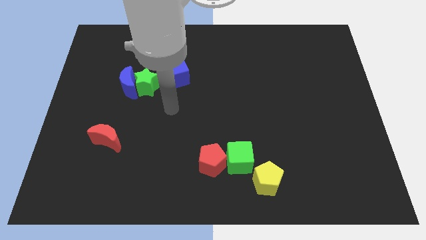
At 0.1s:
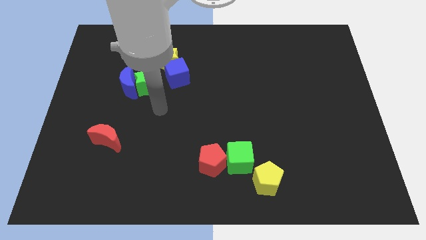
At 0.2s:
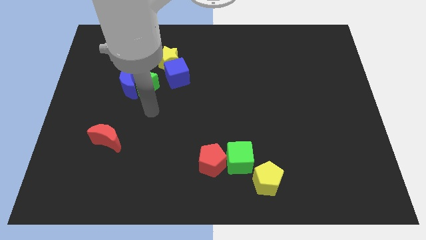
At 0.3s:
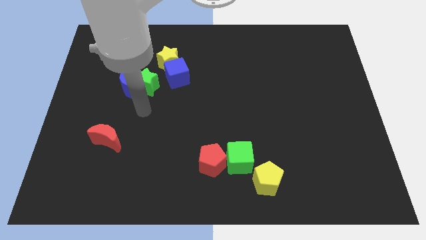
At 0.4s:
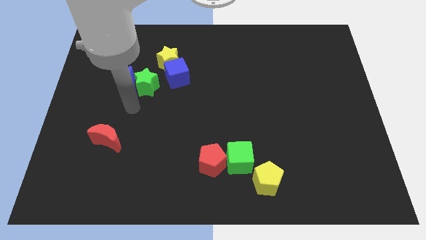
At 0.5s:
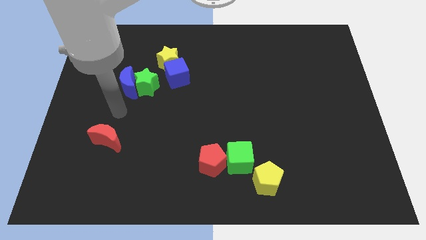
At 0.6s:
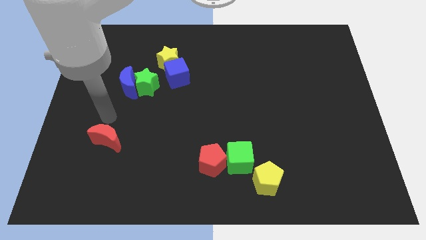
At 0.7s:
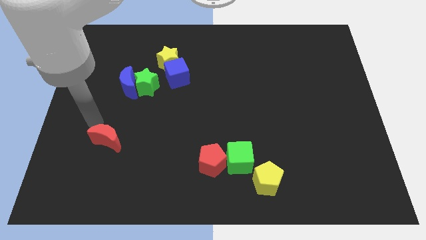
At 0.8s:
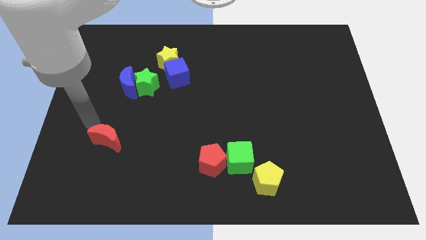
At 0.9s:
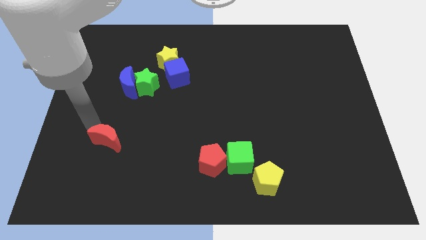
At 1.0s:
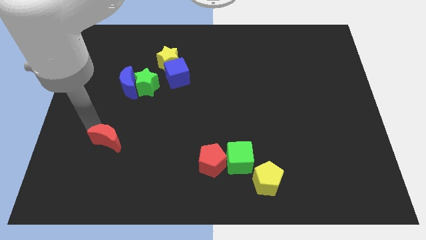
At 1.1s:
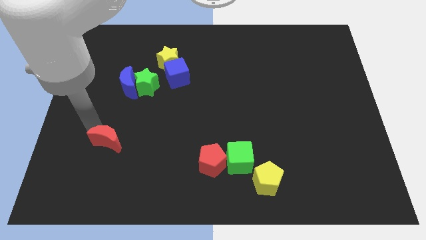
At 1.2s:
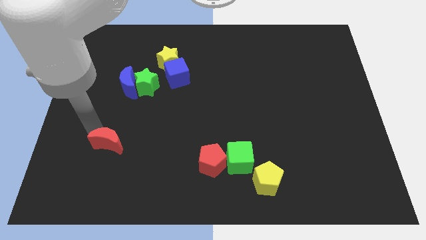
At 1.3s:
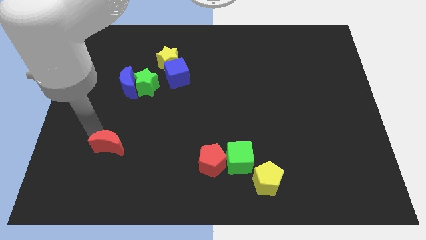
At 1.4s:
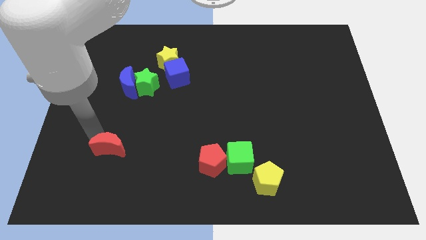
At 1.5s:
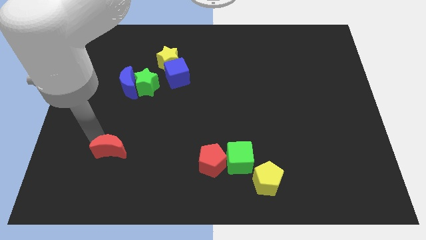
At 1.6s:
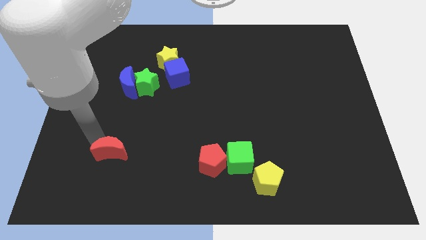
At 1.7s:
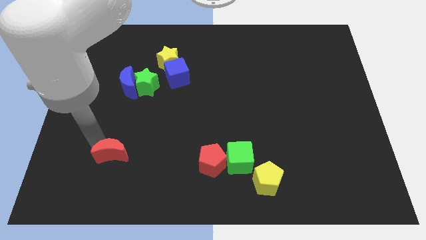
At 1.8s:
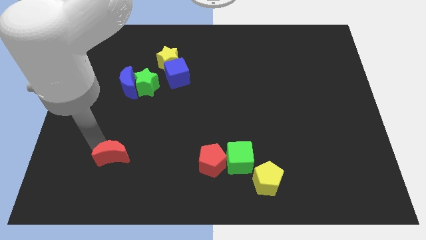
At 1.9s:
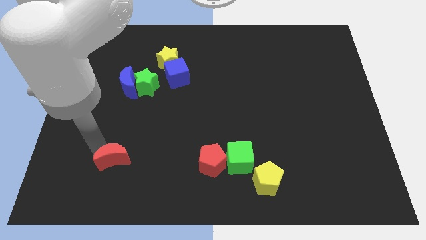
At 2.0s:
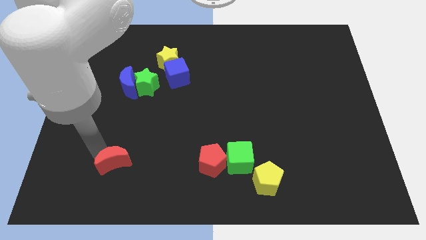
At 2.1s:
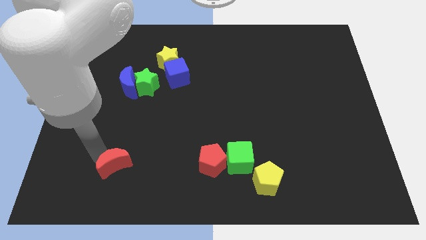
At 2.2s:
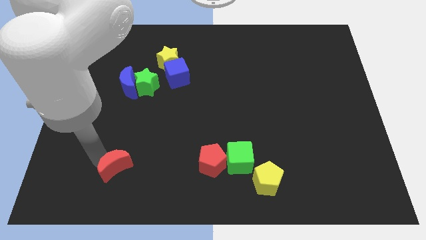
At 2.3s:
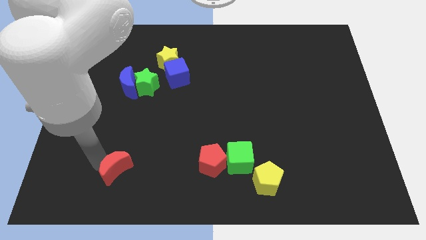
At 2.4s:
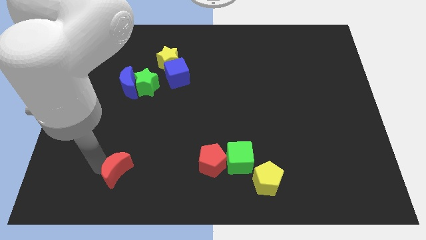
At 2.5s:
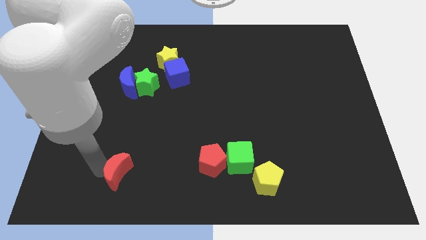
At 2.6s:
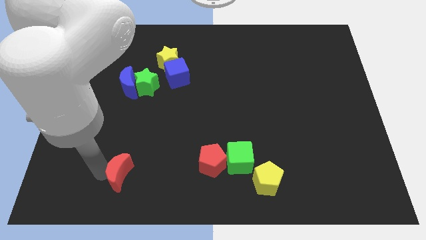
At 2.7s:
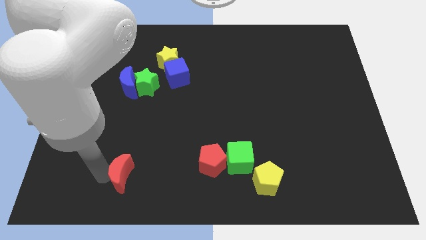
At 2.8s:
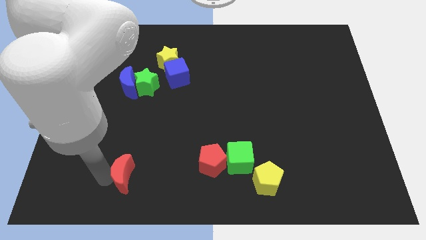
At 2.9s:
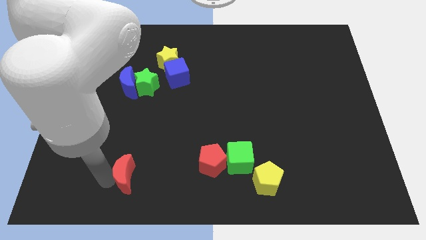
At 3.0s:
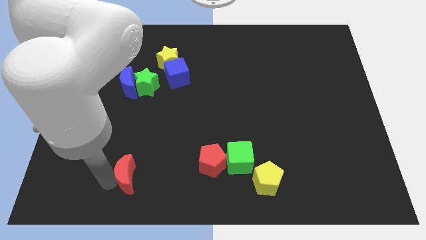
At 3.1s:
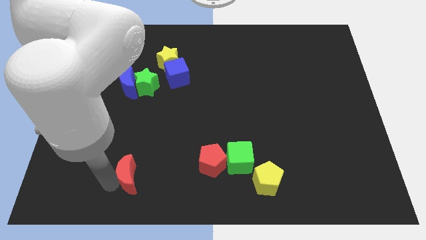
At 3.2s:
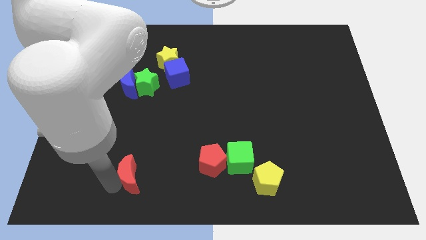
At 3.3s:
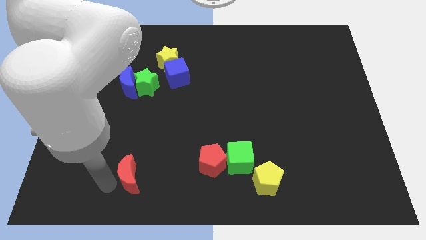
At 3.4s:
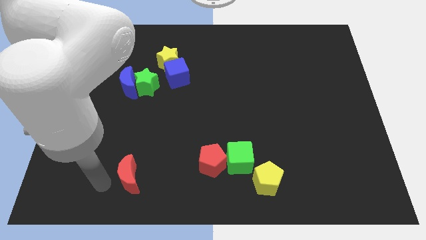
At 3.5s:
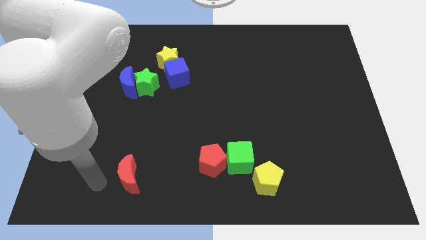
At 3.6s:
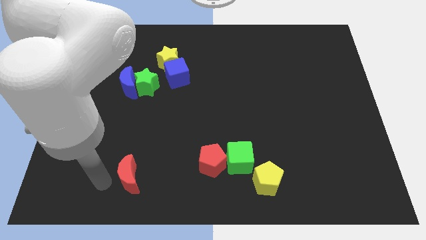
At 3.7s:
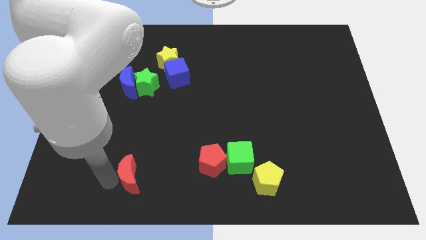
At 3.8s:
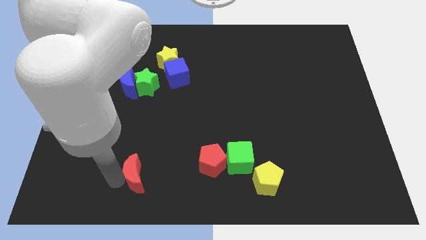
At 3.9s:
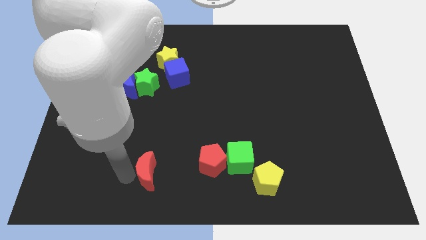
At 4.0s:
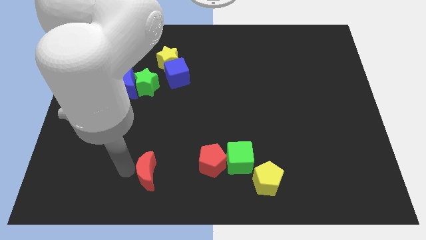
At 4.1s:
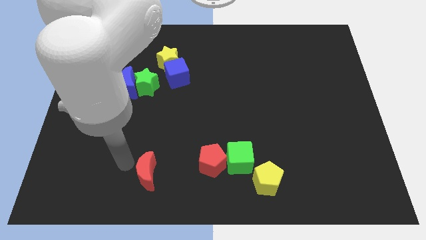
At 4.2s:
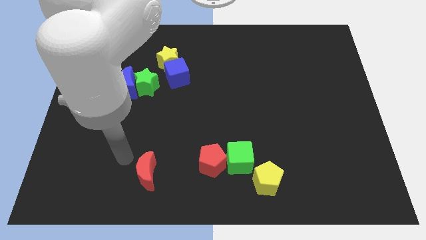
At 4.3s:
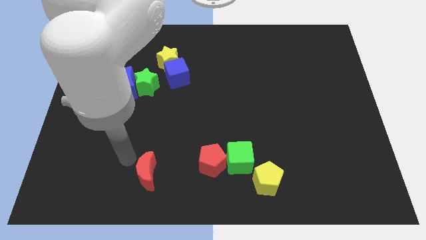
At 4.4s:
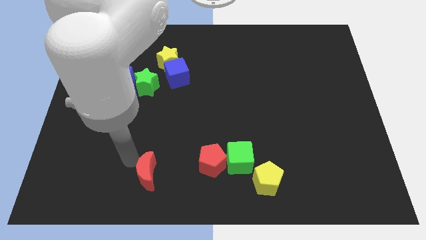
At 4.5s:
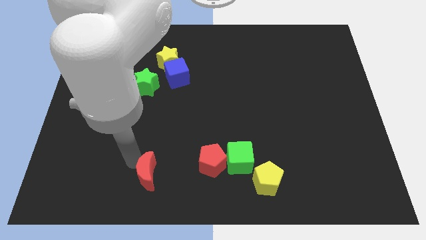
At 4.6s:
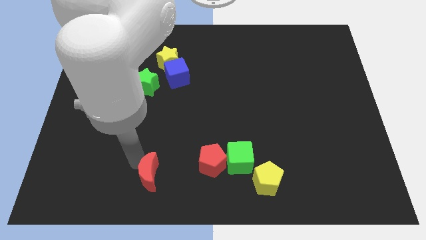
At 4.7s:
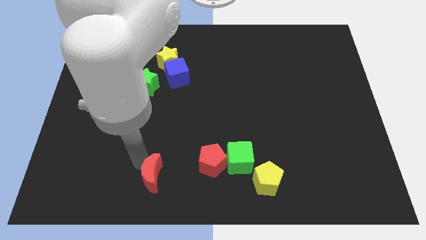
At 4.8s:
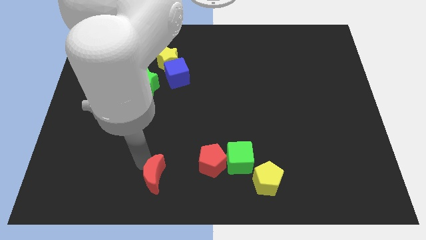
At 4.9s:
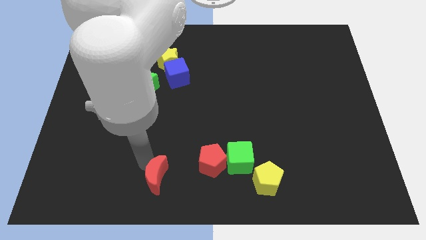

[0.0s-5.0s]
slide the red moon to the bottom side

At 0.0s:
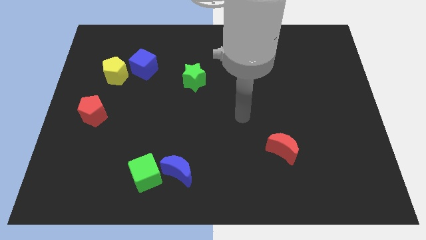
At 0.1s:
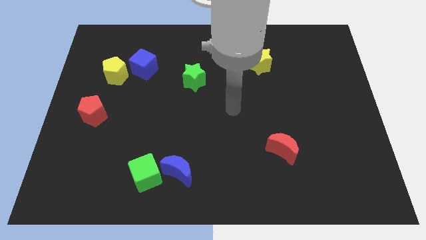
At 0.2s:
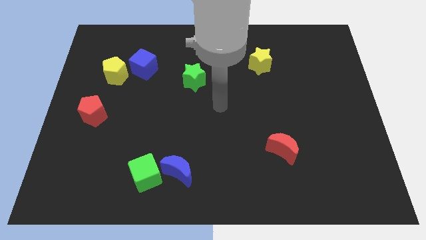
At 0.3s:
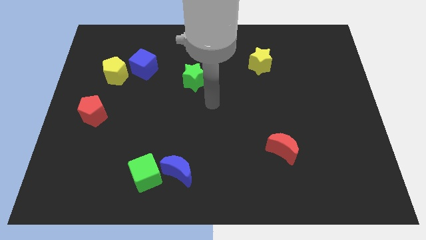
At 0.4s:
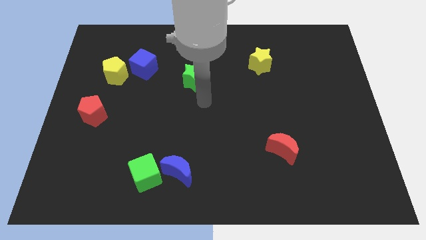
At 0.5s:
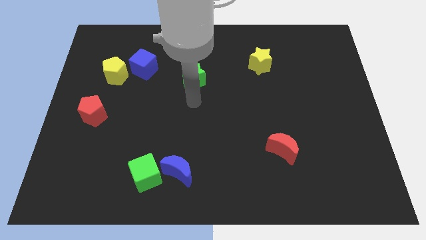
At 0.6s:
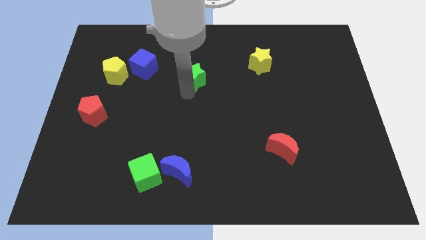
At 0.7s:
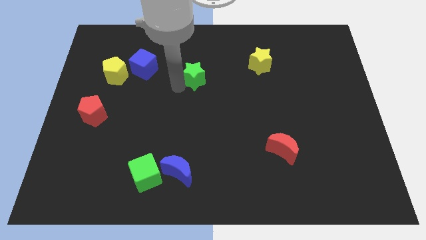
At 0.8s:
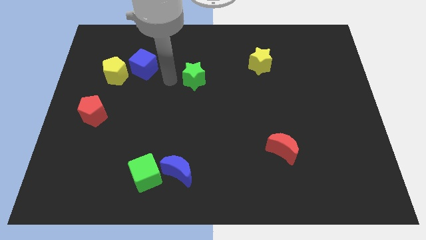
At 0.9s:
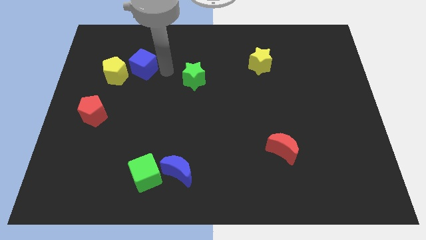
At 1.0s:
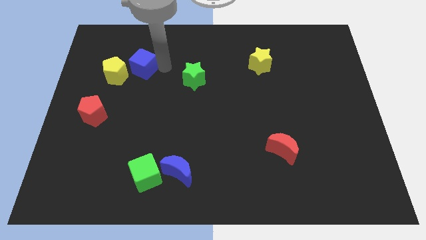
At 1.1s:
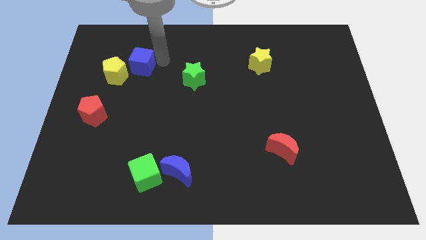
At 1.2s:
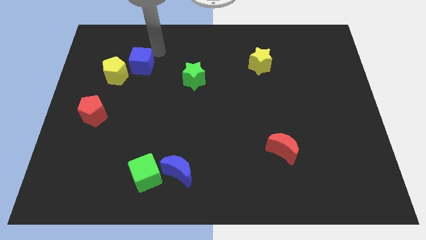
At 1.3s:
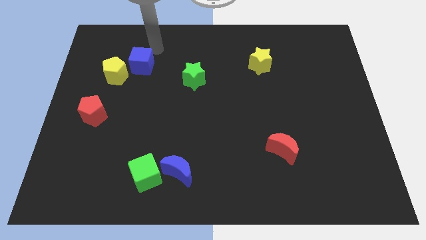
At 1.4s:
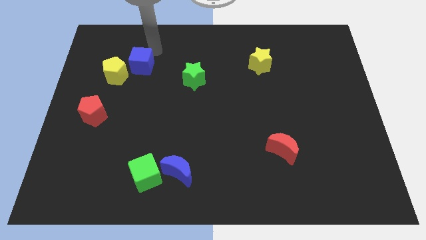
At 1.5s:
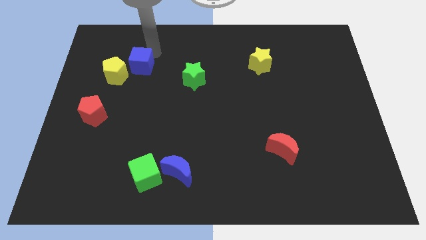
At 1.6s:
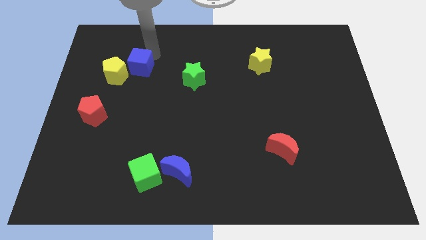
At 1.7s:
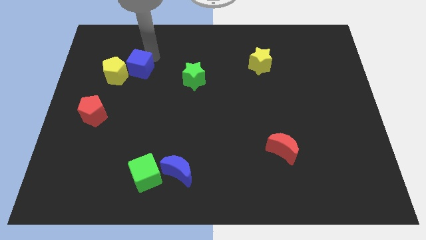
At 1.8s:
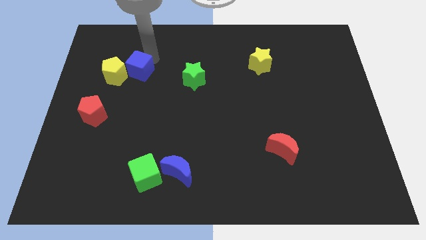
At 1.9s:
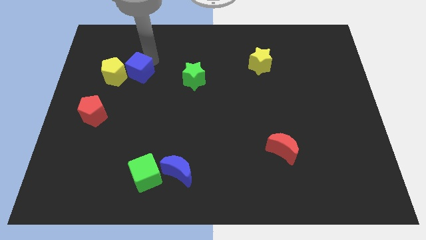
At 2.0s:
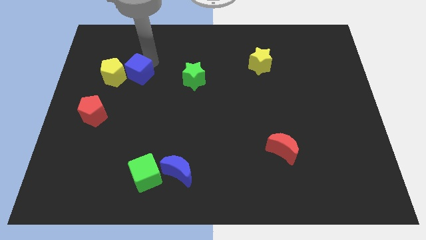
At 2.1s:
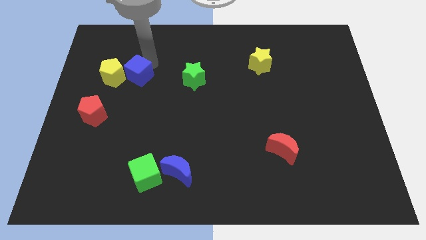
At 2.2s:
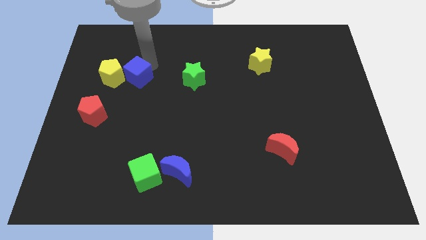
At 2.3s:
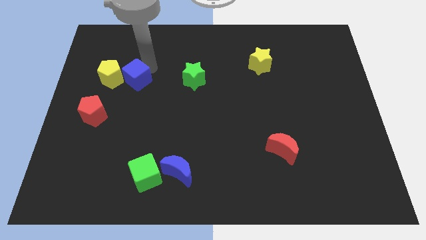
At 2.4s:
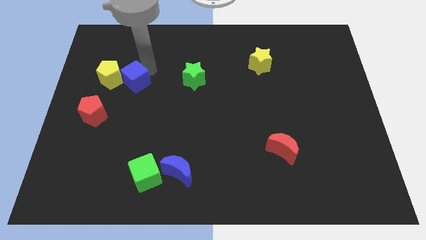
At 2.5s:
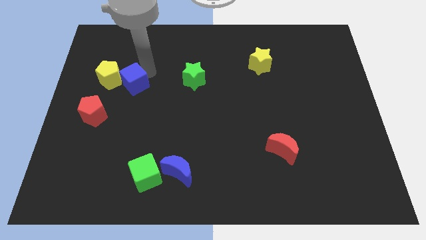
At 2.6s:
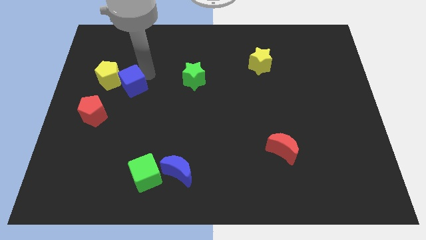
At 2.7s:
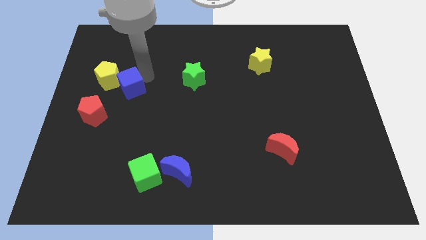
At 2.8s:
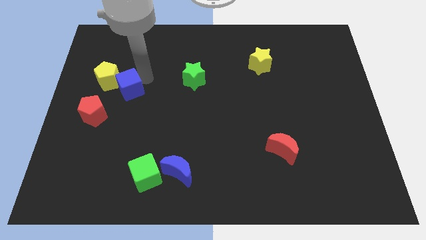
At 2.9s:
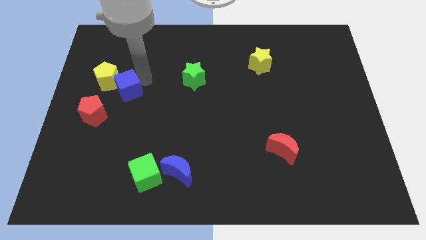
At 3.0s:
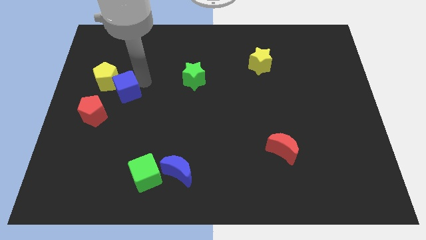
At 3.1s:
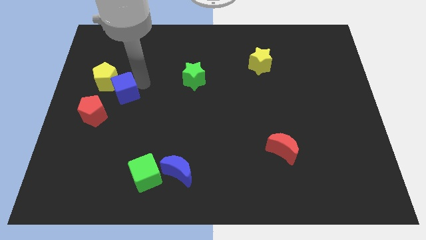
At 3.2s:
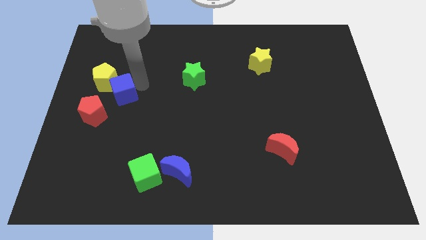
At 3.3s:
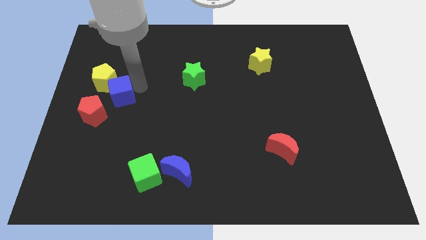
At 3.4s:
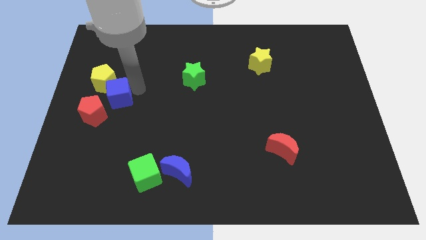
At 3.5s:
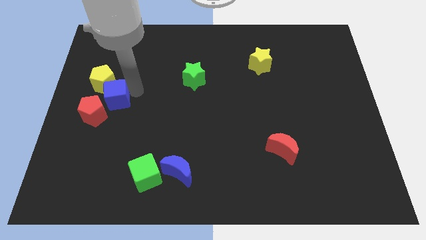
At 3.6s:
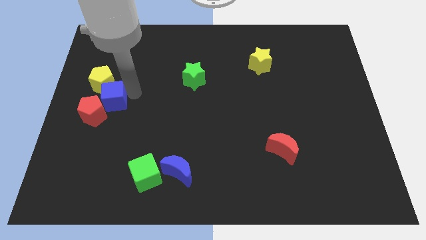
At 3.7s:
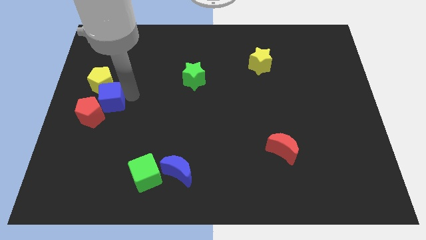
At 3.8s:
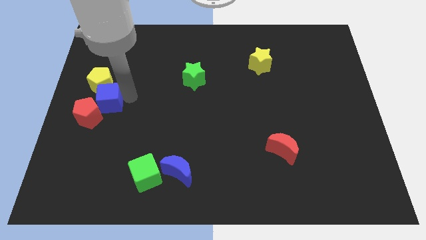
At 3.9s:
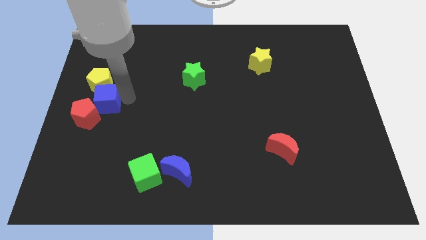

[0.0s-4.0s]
push the blue cube to the left side
